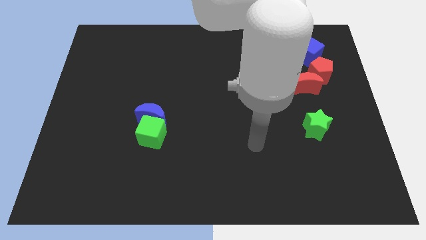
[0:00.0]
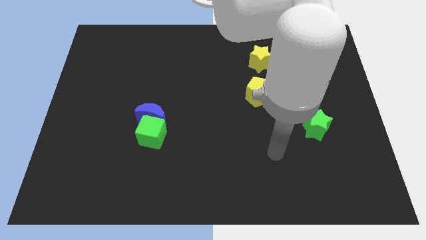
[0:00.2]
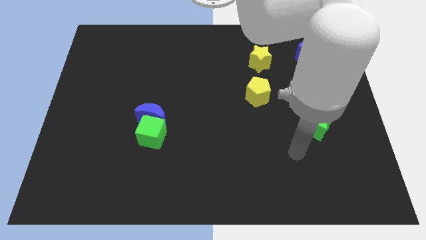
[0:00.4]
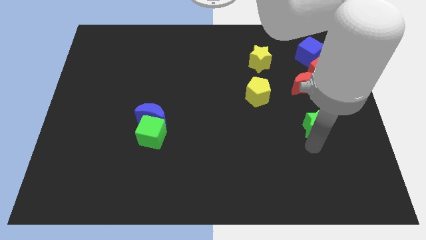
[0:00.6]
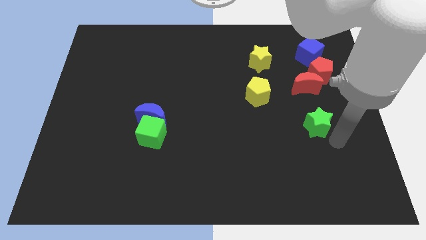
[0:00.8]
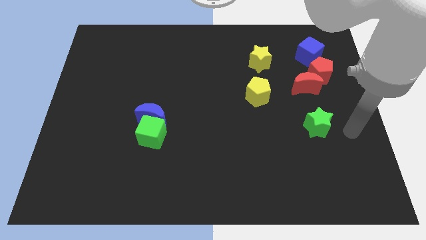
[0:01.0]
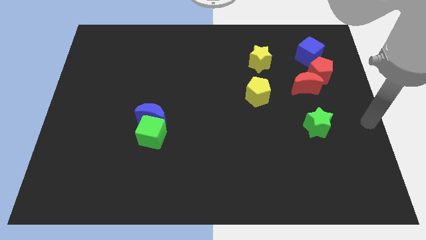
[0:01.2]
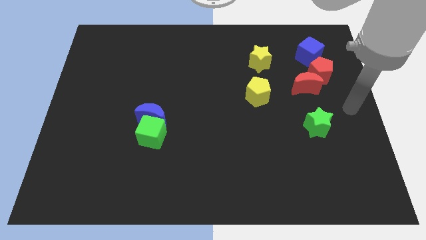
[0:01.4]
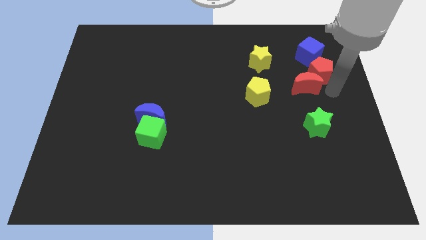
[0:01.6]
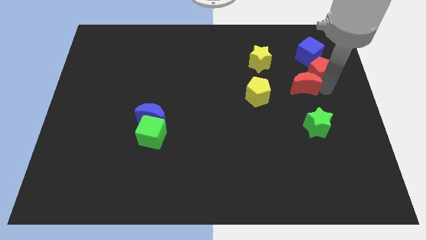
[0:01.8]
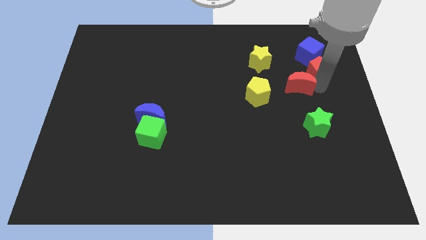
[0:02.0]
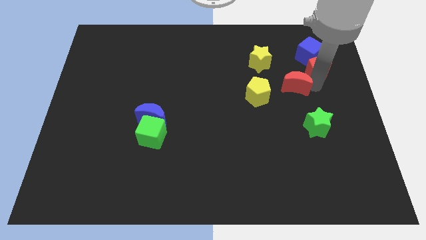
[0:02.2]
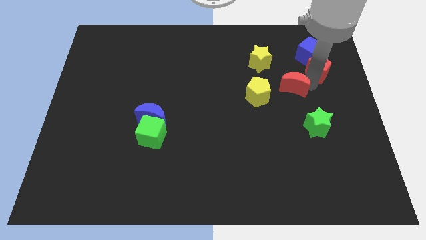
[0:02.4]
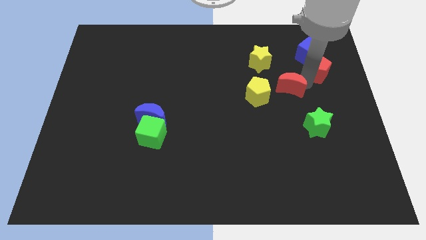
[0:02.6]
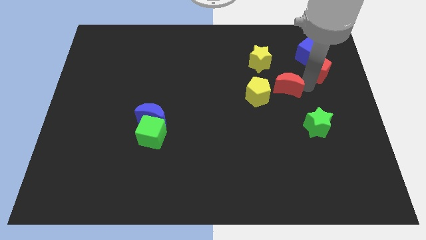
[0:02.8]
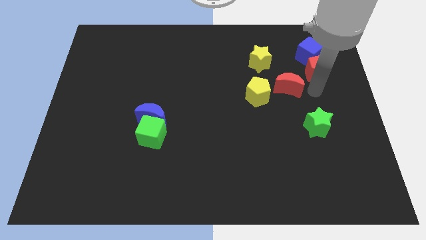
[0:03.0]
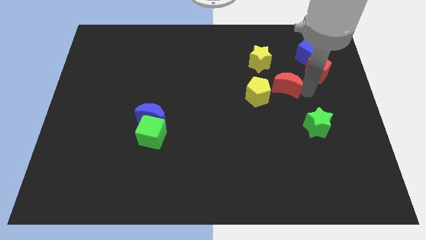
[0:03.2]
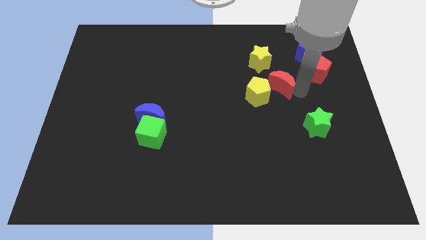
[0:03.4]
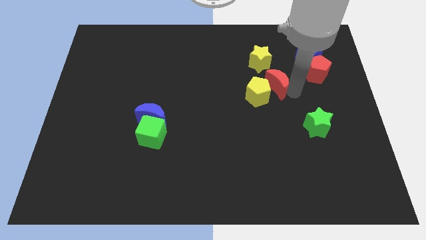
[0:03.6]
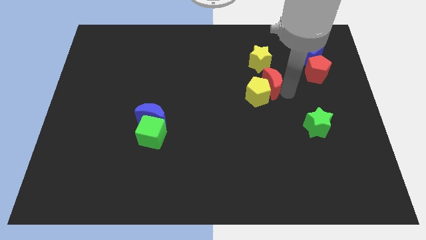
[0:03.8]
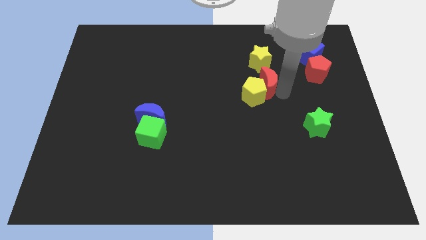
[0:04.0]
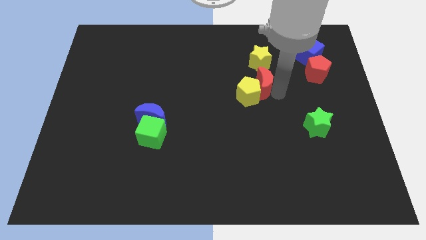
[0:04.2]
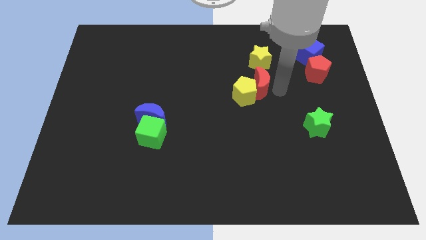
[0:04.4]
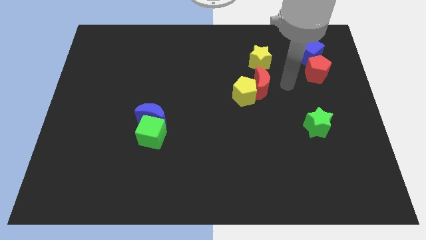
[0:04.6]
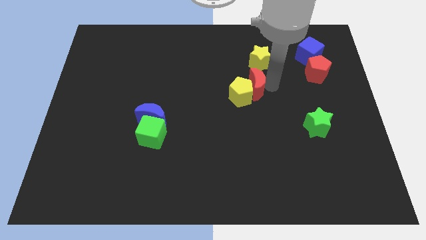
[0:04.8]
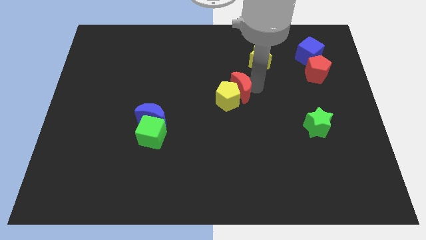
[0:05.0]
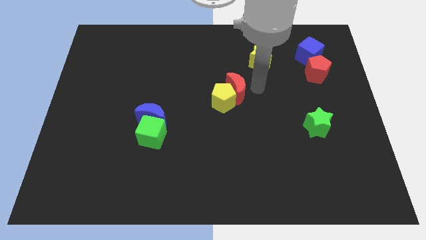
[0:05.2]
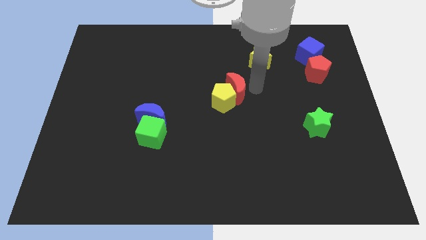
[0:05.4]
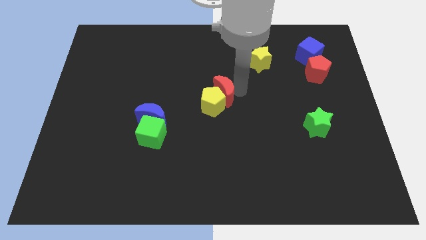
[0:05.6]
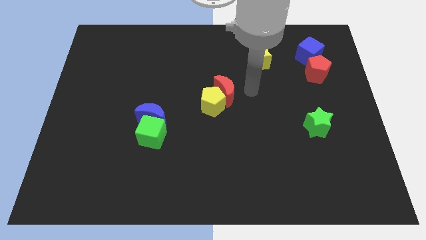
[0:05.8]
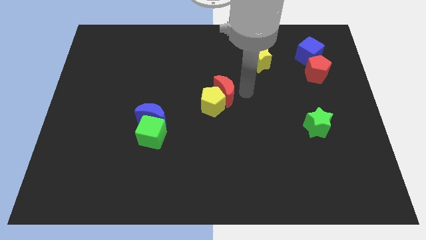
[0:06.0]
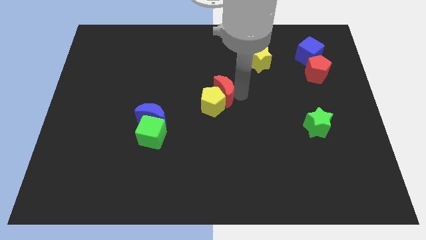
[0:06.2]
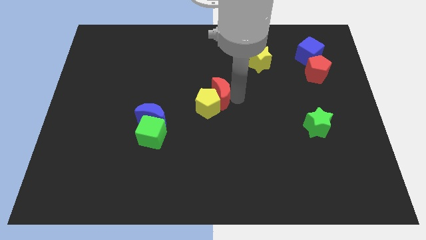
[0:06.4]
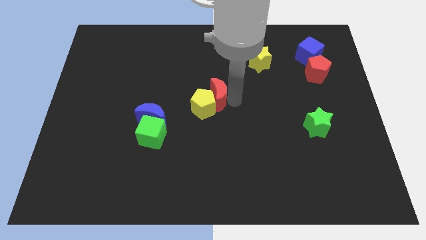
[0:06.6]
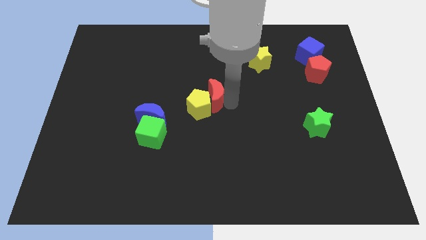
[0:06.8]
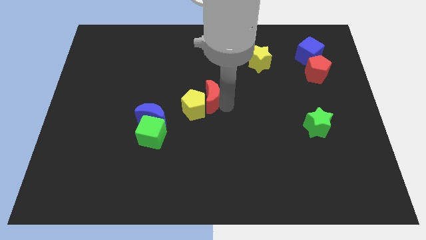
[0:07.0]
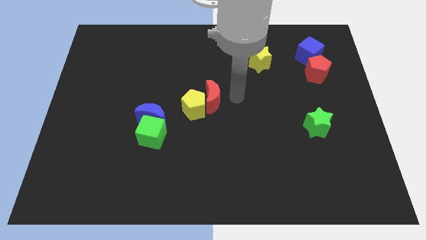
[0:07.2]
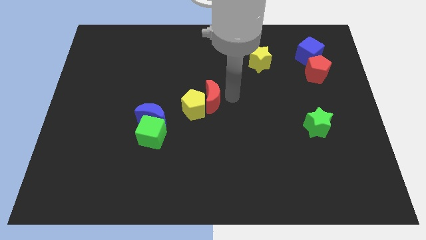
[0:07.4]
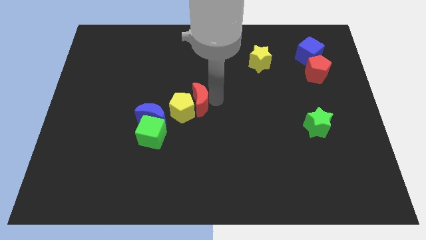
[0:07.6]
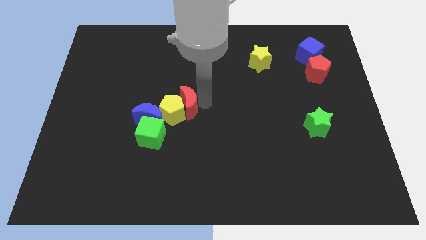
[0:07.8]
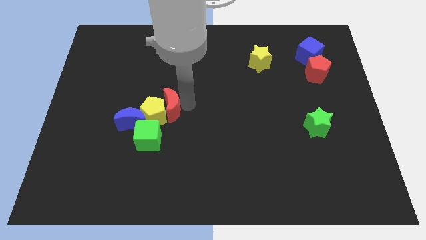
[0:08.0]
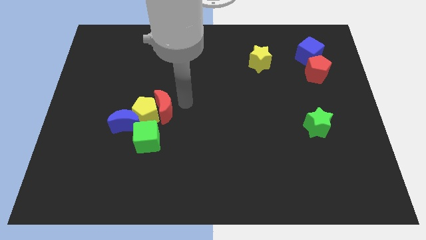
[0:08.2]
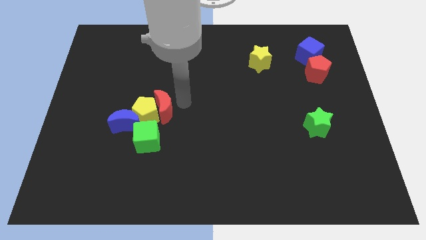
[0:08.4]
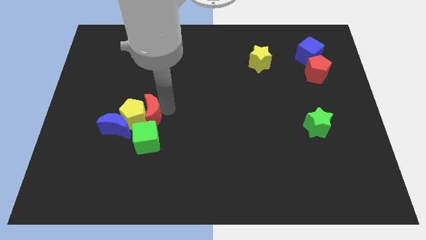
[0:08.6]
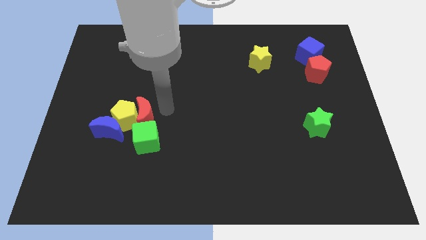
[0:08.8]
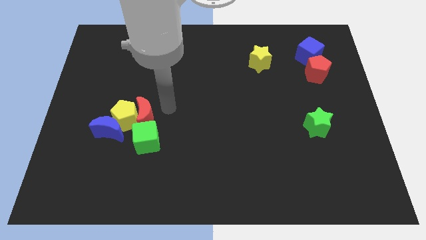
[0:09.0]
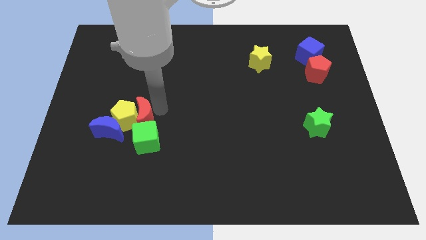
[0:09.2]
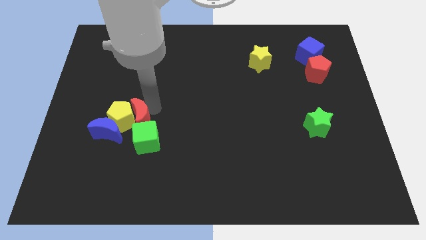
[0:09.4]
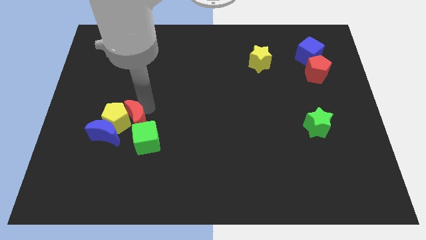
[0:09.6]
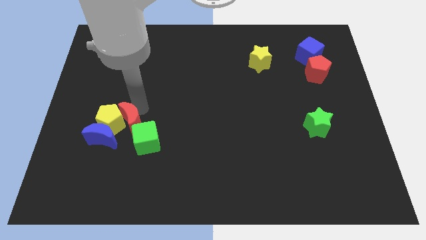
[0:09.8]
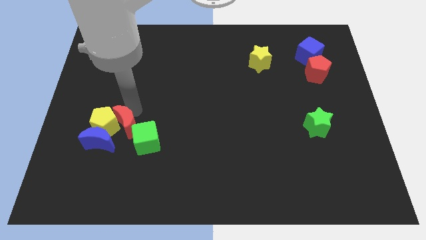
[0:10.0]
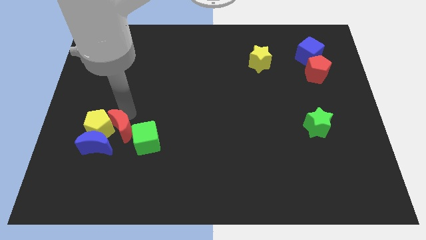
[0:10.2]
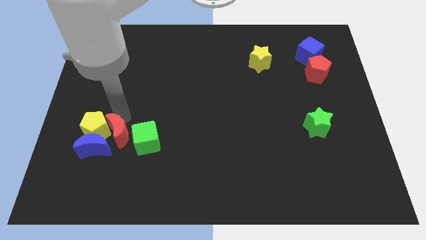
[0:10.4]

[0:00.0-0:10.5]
push the red moon close to the blue moon

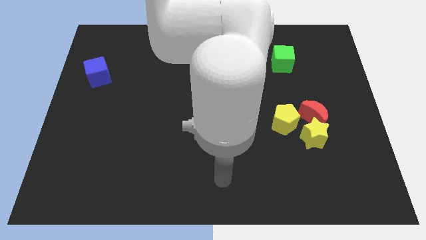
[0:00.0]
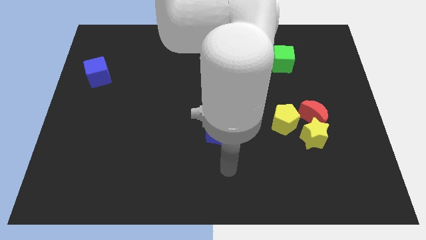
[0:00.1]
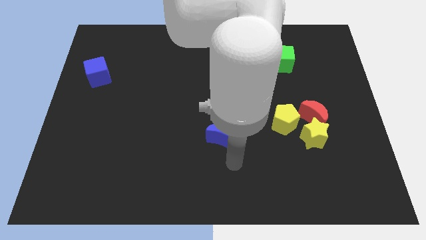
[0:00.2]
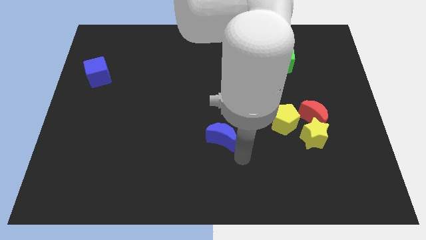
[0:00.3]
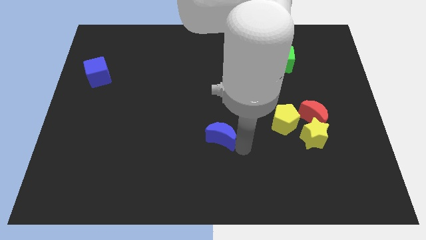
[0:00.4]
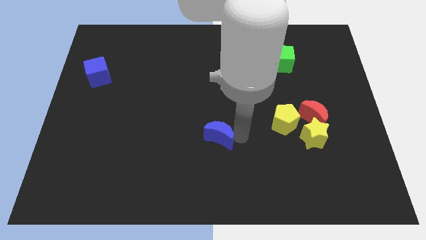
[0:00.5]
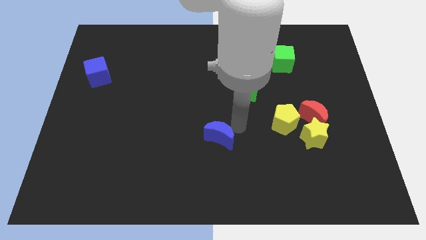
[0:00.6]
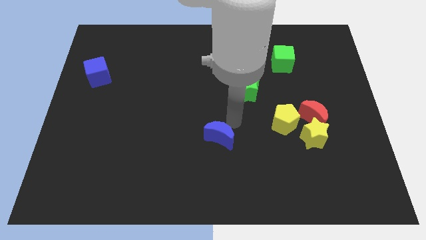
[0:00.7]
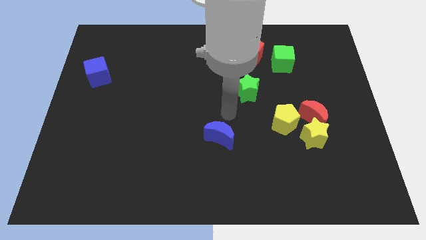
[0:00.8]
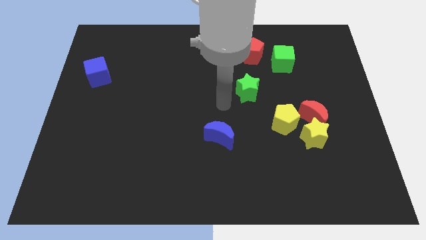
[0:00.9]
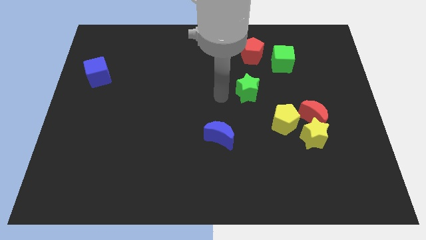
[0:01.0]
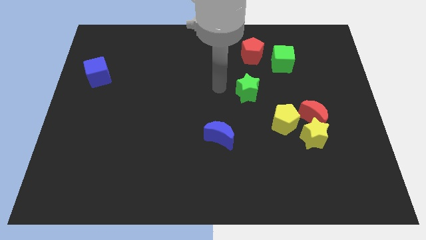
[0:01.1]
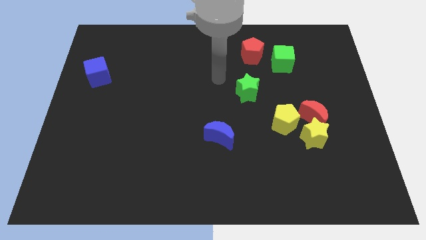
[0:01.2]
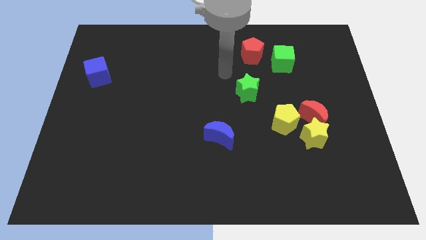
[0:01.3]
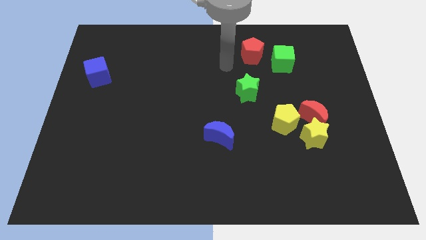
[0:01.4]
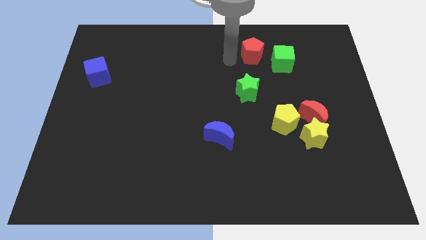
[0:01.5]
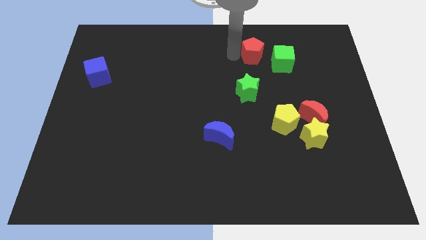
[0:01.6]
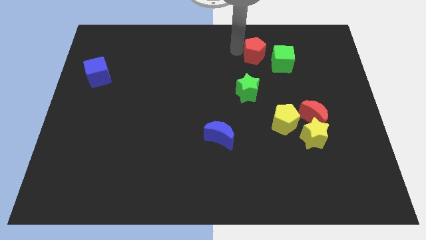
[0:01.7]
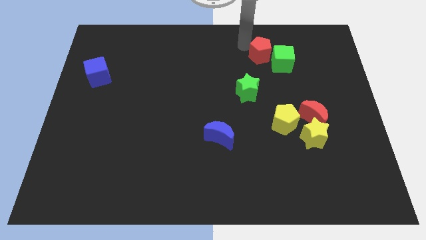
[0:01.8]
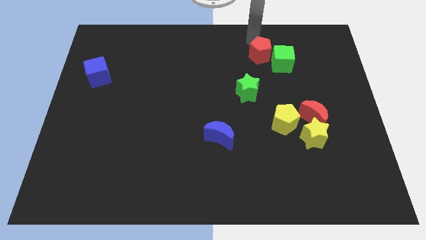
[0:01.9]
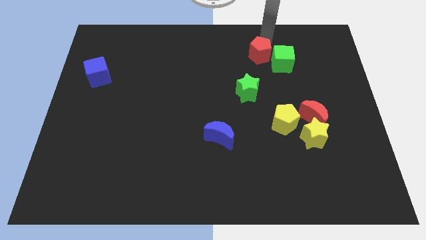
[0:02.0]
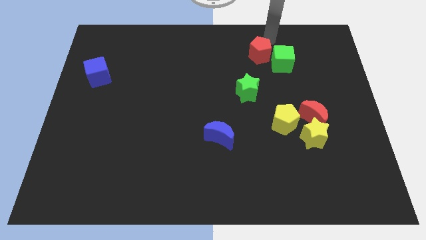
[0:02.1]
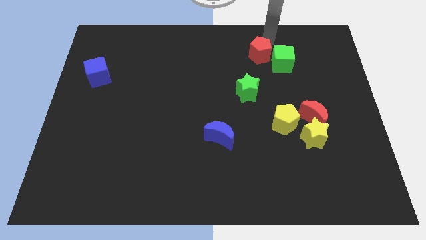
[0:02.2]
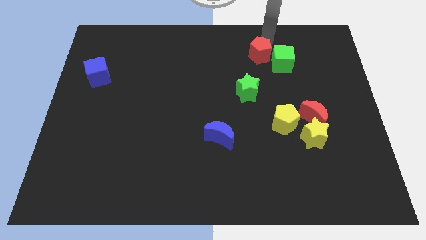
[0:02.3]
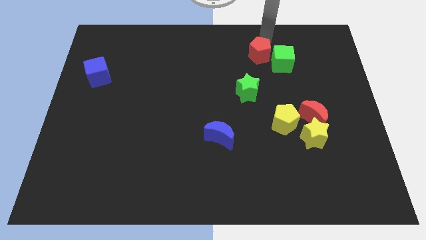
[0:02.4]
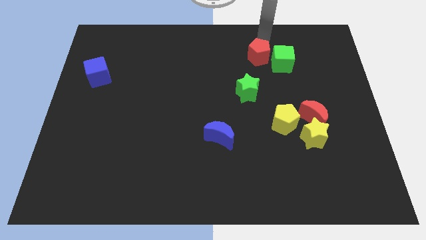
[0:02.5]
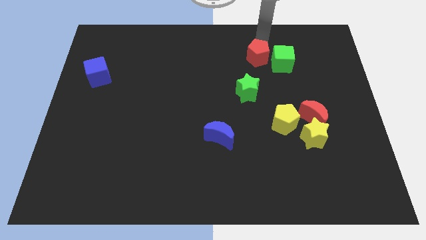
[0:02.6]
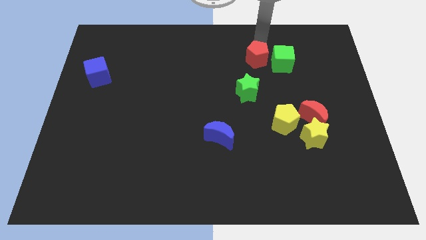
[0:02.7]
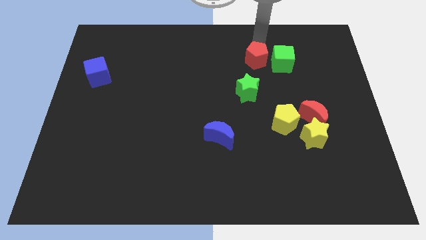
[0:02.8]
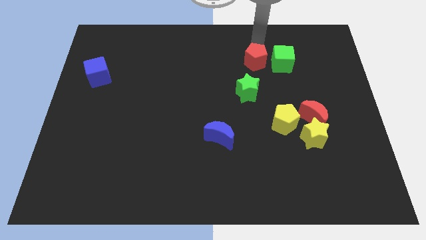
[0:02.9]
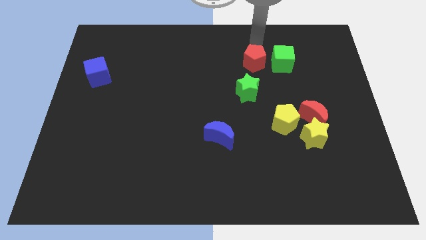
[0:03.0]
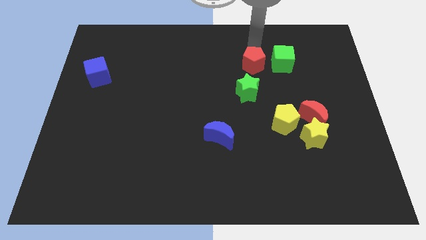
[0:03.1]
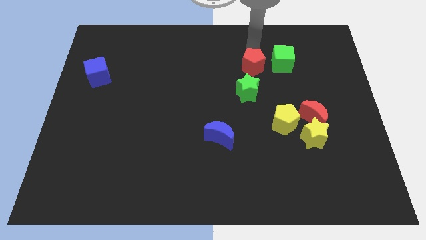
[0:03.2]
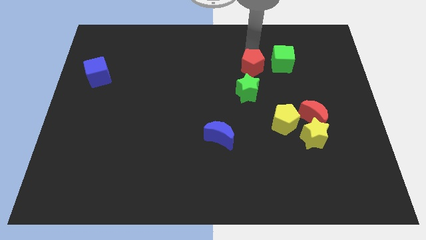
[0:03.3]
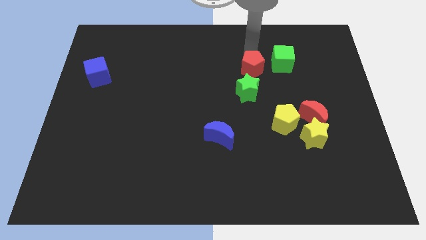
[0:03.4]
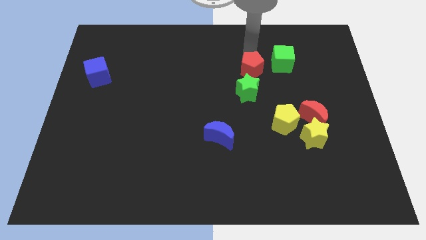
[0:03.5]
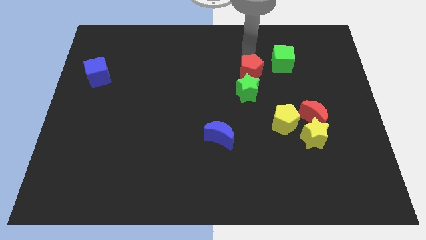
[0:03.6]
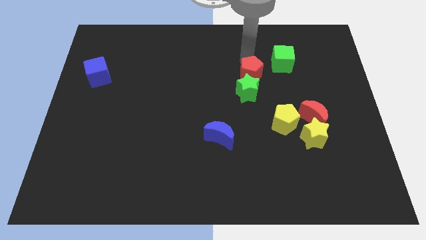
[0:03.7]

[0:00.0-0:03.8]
put the red pentagon to the green star
